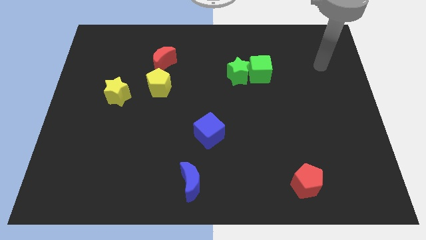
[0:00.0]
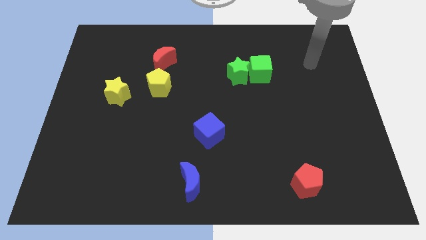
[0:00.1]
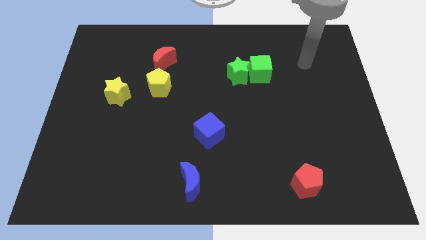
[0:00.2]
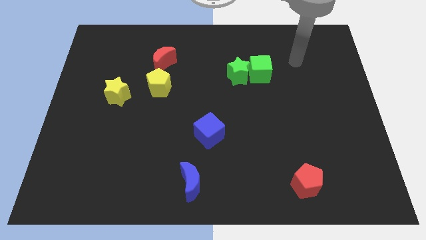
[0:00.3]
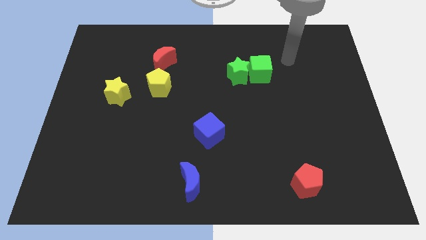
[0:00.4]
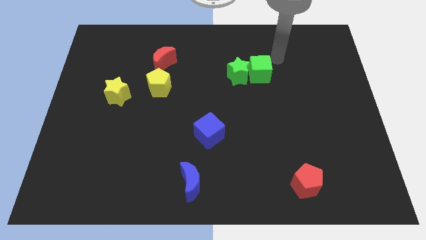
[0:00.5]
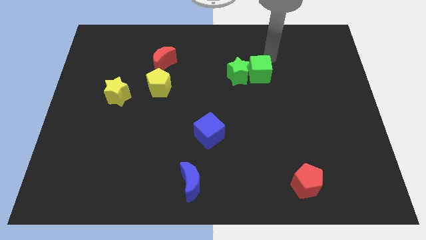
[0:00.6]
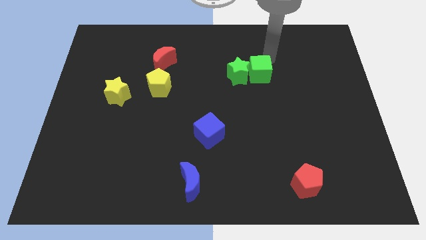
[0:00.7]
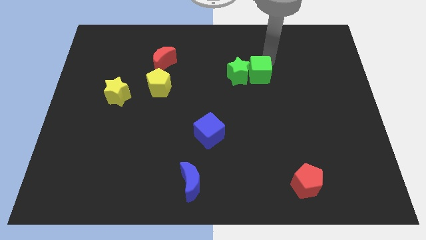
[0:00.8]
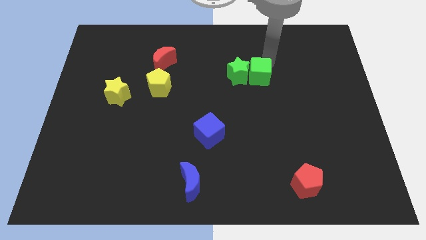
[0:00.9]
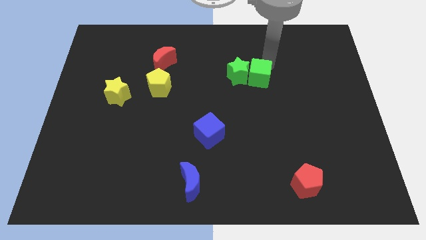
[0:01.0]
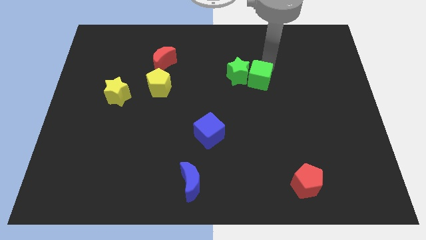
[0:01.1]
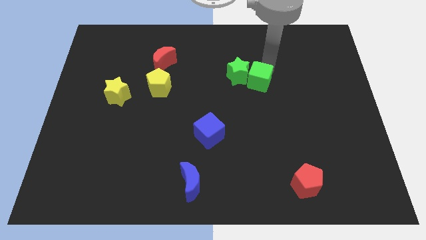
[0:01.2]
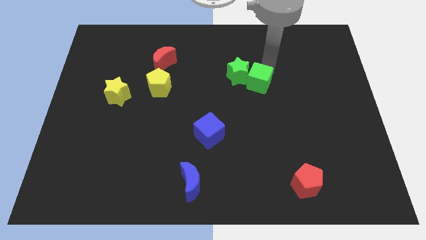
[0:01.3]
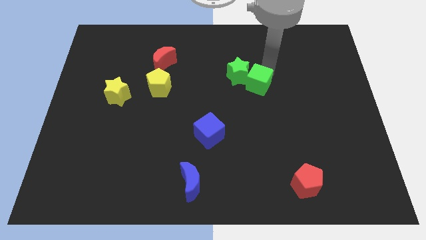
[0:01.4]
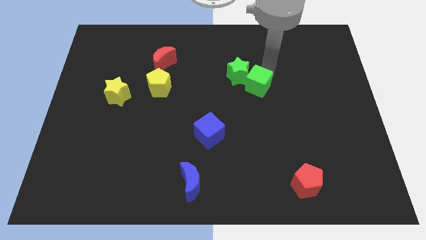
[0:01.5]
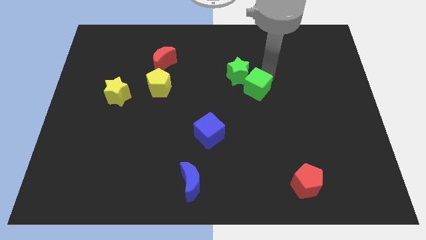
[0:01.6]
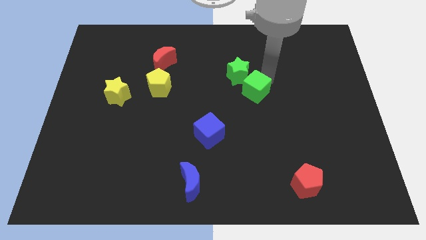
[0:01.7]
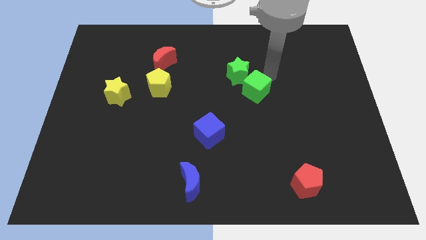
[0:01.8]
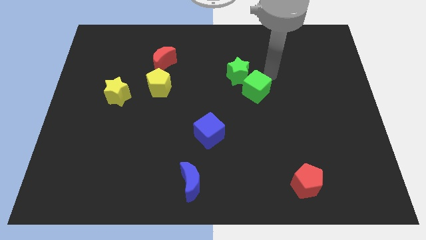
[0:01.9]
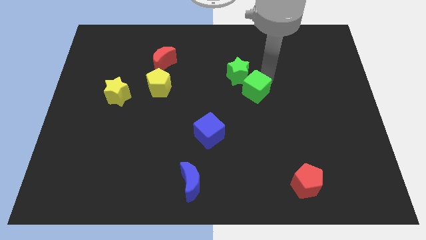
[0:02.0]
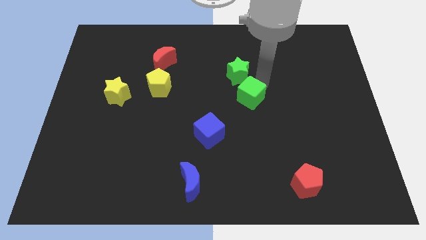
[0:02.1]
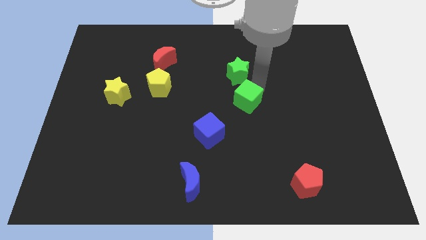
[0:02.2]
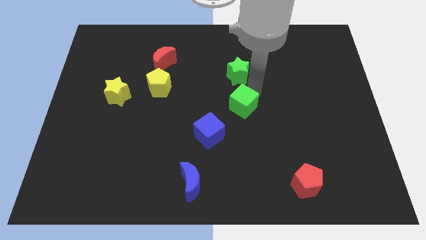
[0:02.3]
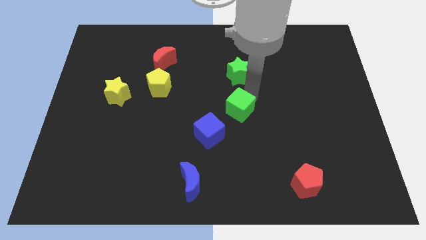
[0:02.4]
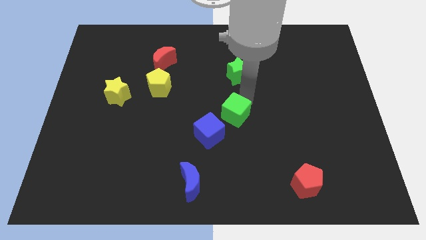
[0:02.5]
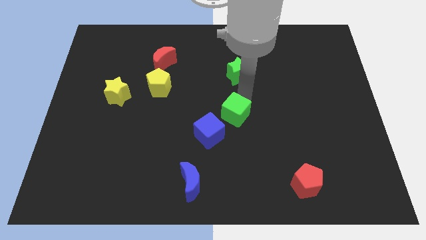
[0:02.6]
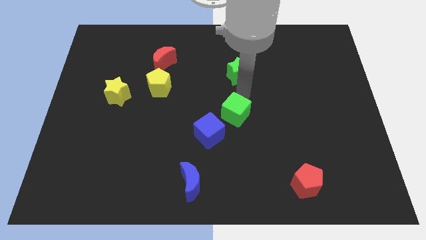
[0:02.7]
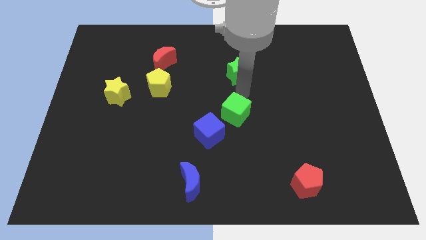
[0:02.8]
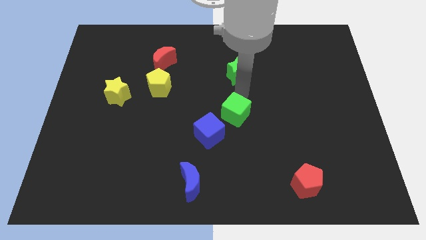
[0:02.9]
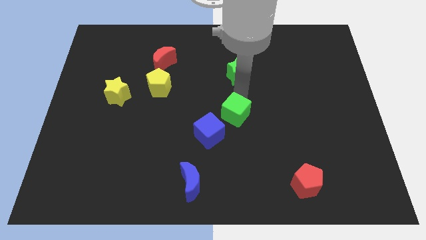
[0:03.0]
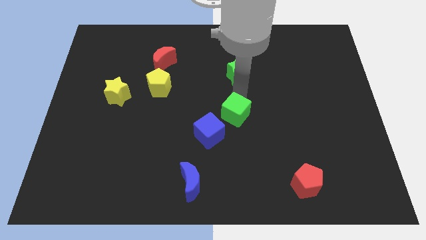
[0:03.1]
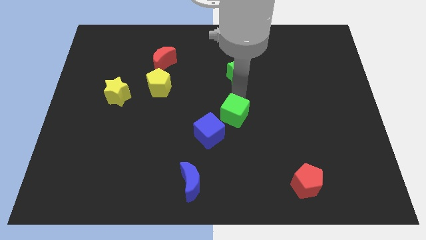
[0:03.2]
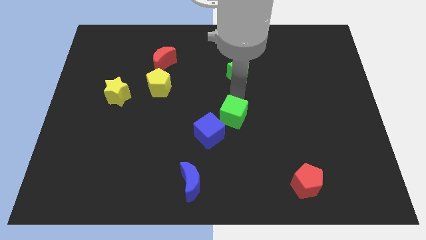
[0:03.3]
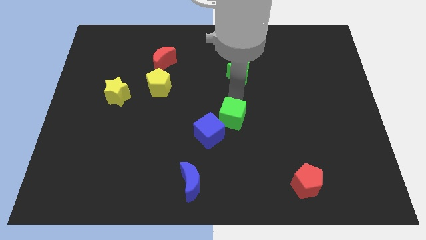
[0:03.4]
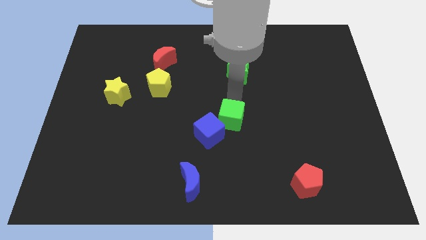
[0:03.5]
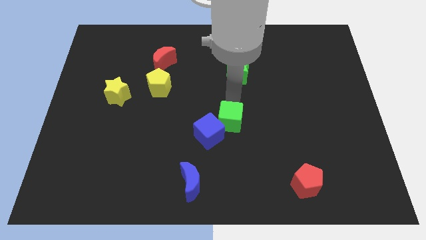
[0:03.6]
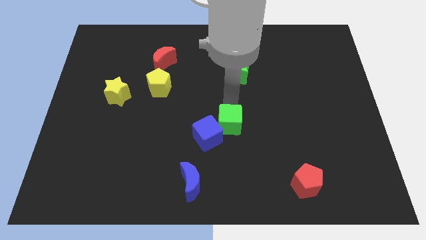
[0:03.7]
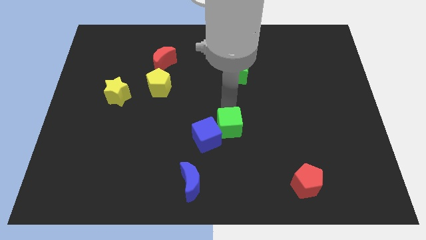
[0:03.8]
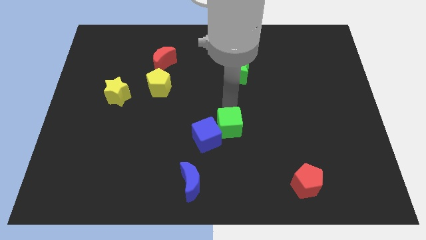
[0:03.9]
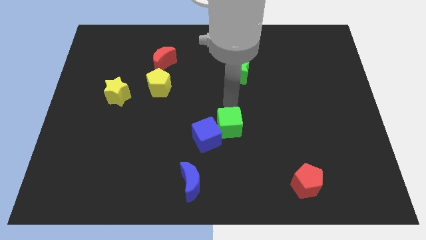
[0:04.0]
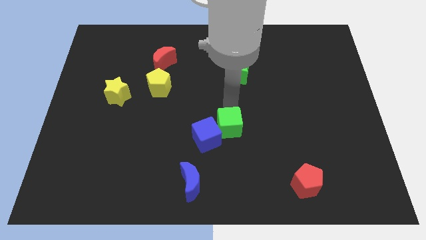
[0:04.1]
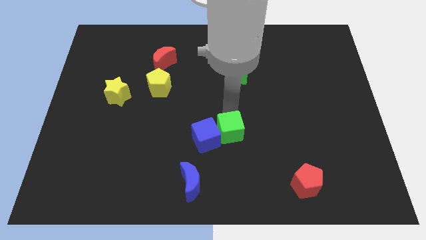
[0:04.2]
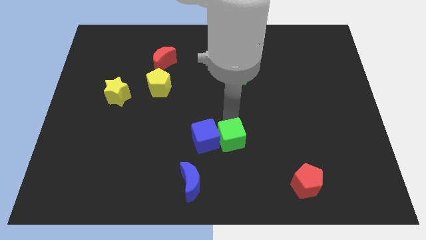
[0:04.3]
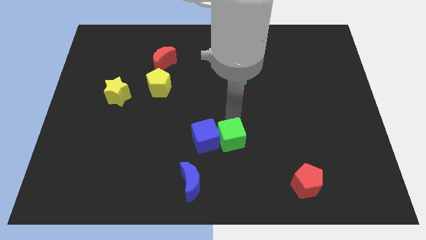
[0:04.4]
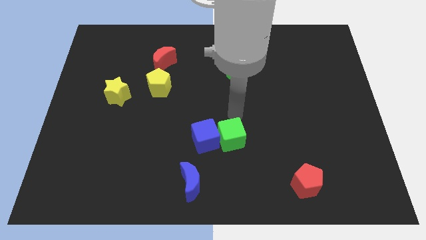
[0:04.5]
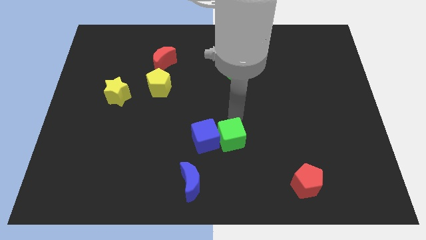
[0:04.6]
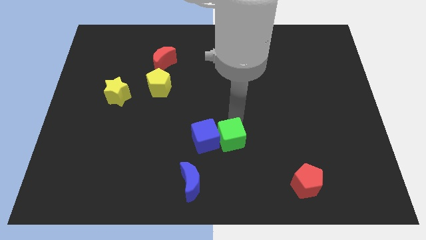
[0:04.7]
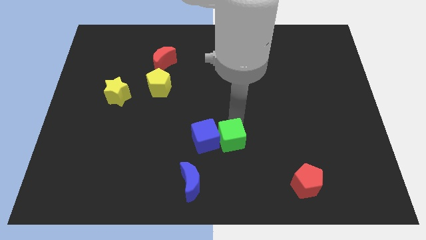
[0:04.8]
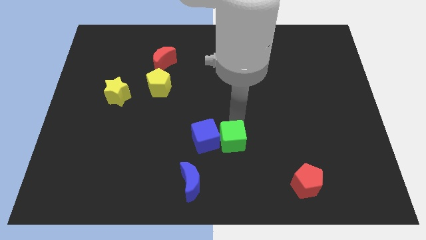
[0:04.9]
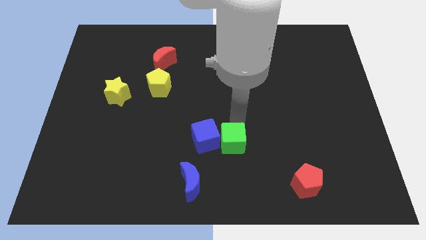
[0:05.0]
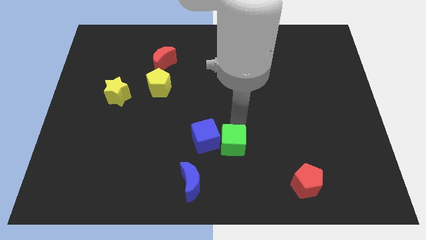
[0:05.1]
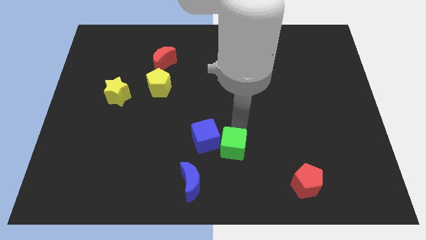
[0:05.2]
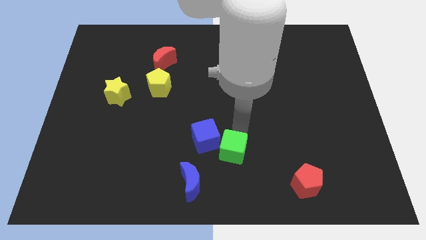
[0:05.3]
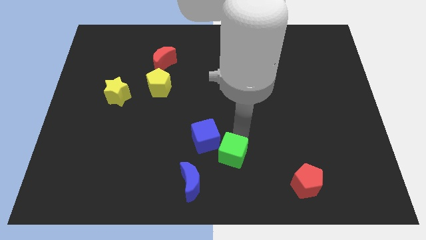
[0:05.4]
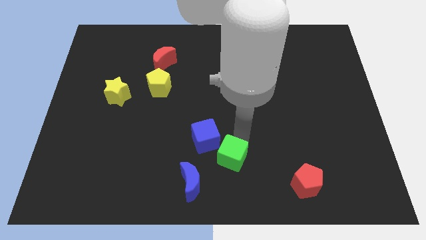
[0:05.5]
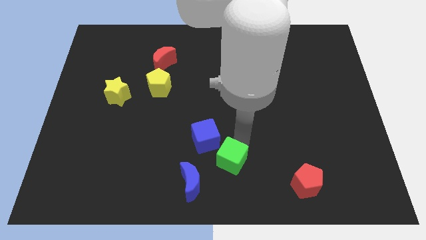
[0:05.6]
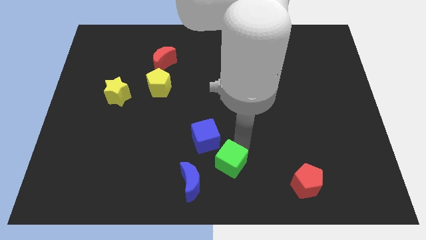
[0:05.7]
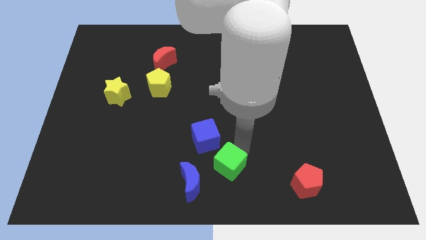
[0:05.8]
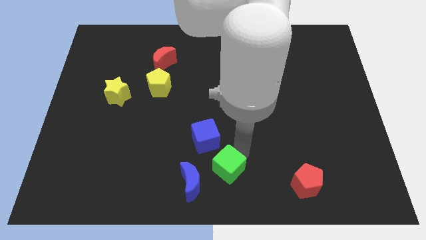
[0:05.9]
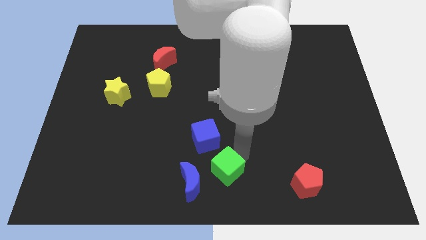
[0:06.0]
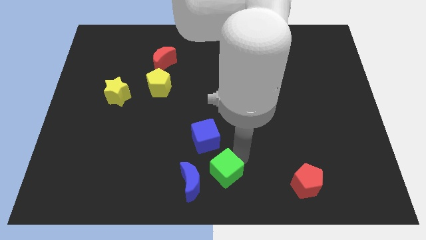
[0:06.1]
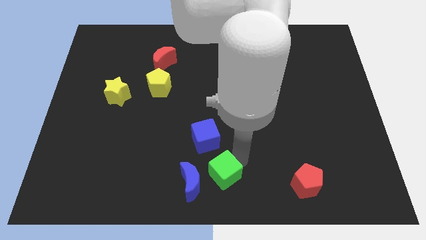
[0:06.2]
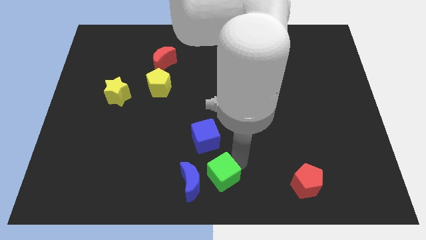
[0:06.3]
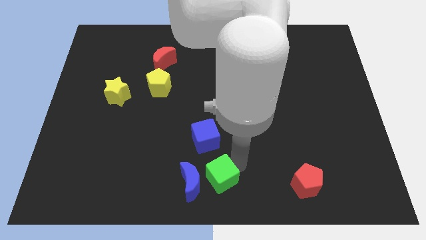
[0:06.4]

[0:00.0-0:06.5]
push the green cube to the blue moon

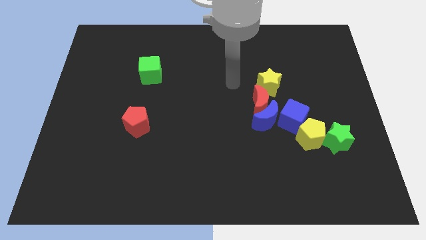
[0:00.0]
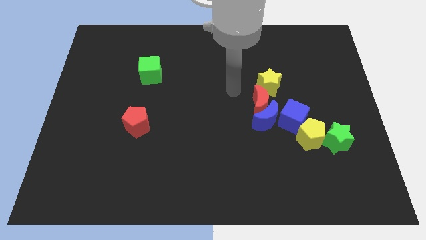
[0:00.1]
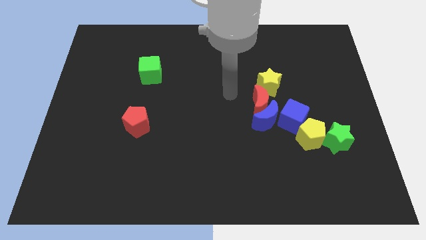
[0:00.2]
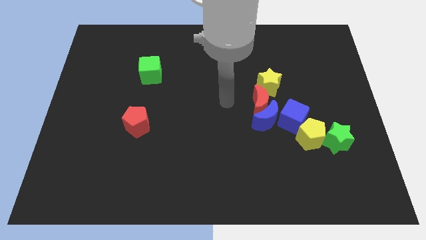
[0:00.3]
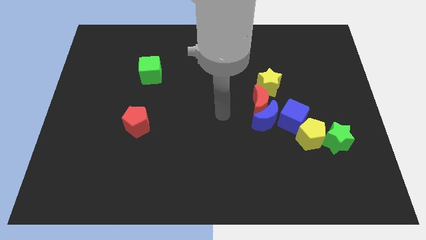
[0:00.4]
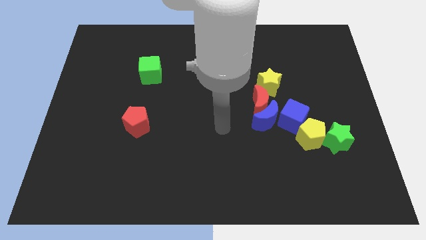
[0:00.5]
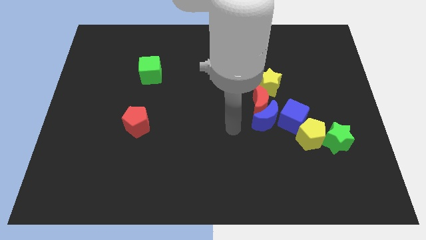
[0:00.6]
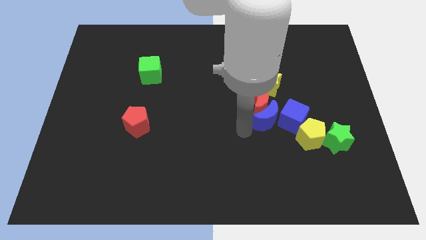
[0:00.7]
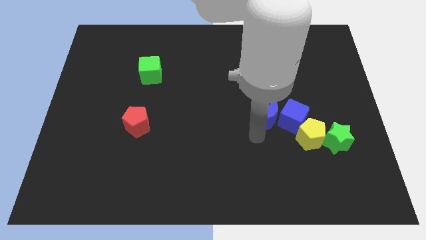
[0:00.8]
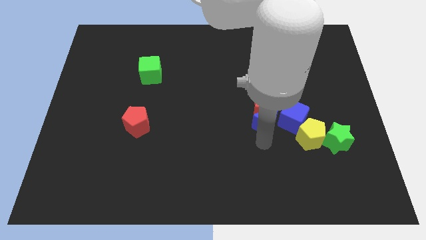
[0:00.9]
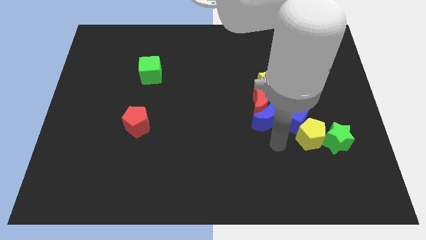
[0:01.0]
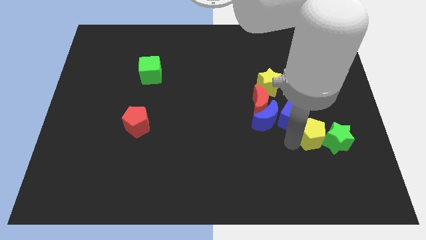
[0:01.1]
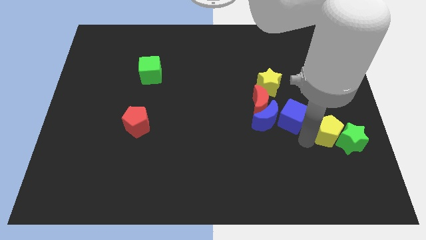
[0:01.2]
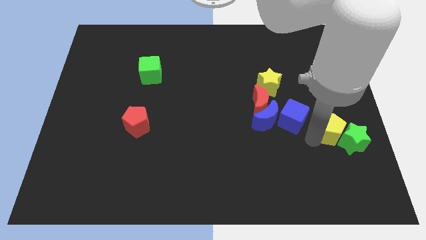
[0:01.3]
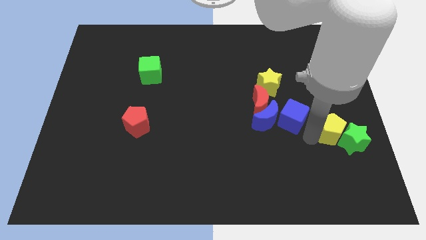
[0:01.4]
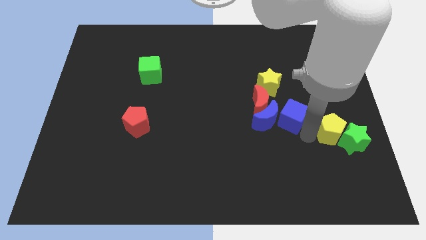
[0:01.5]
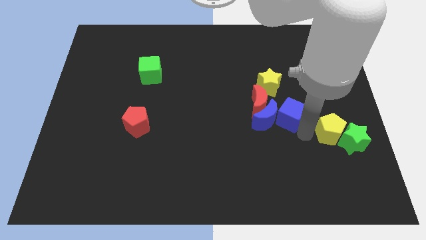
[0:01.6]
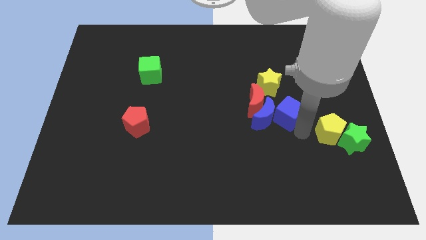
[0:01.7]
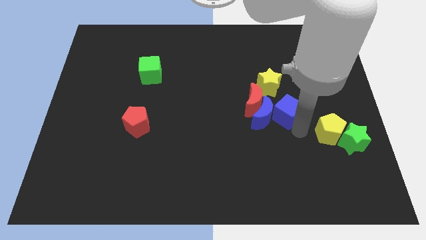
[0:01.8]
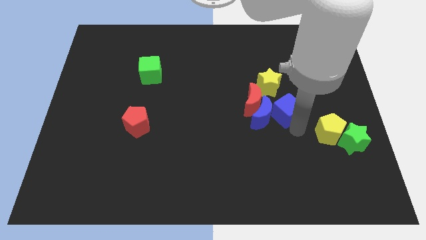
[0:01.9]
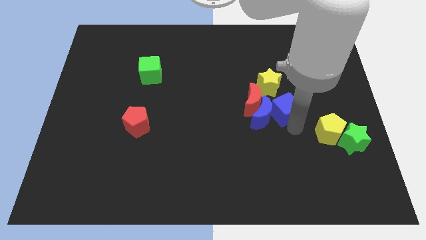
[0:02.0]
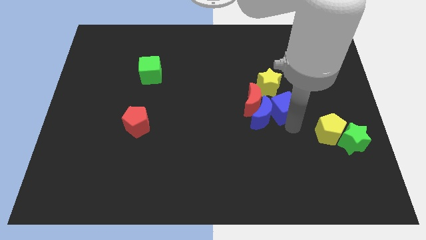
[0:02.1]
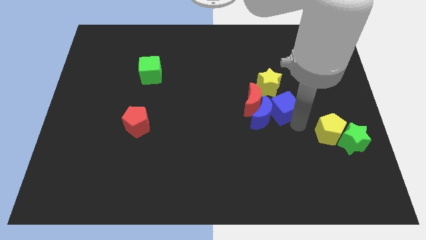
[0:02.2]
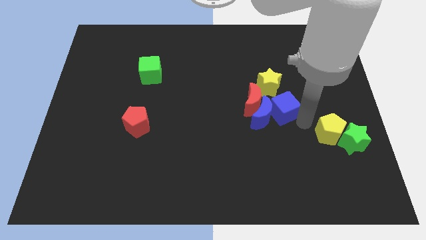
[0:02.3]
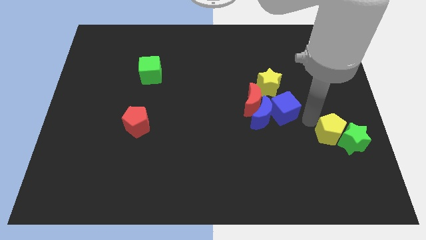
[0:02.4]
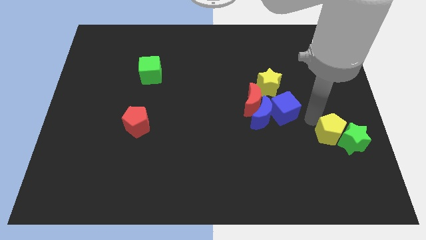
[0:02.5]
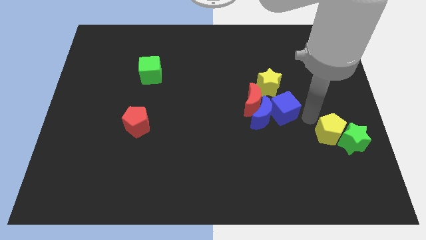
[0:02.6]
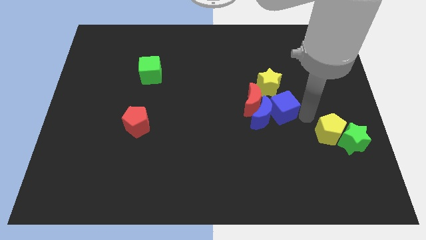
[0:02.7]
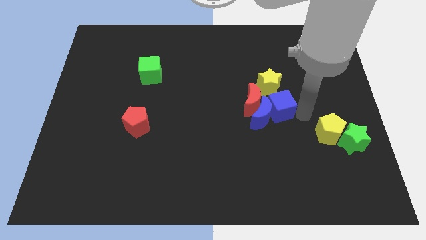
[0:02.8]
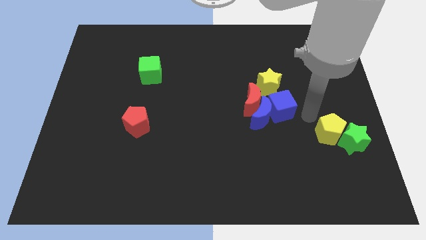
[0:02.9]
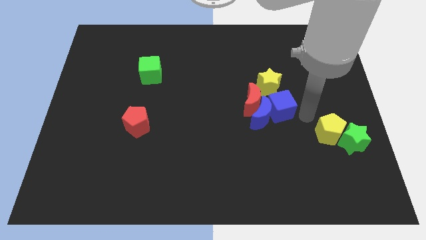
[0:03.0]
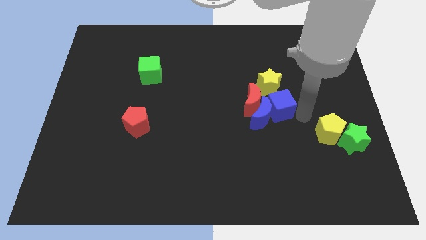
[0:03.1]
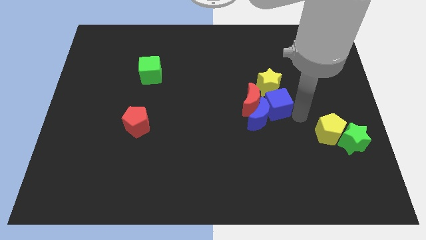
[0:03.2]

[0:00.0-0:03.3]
slide the blue cube towards the red moon
